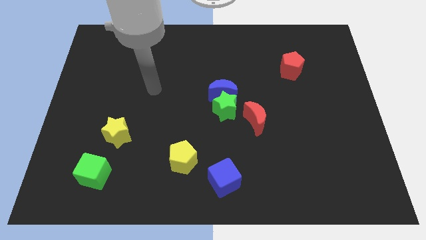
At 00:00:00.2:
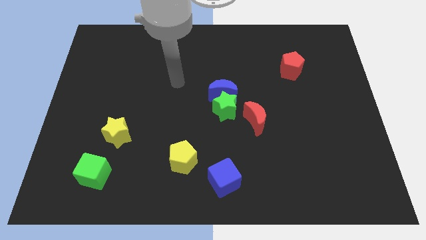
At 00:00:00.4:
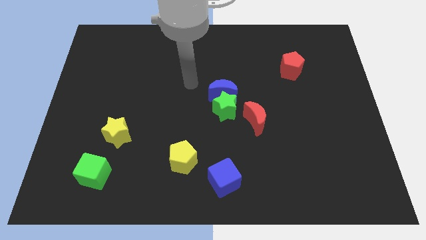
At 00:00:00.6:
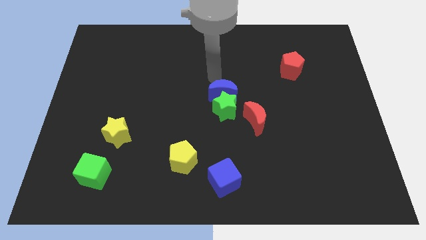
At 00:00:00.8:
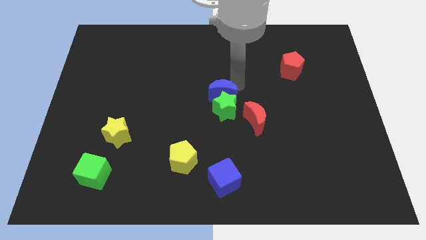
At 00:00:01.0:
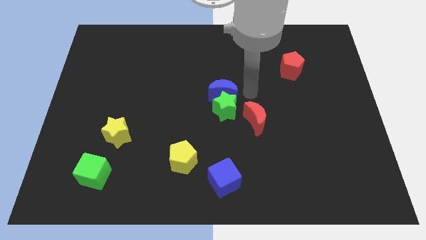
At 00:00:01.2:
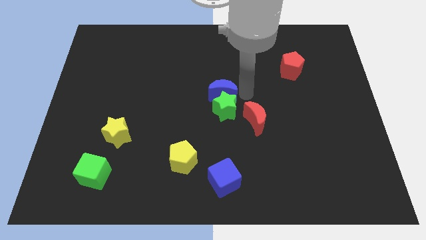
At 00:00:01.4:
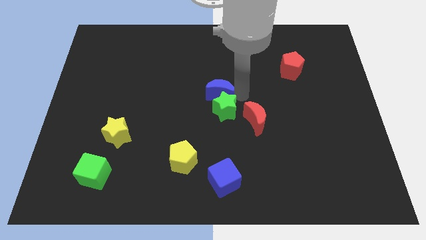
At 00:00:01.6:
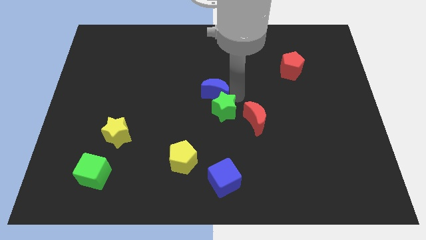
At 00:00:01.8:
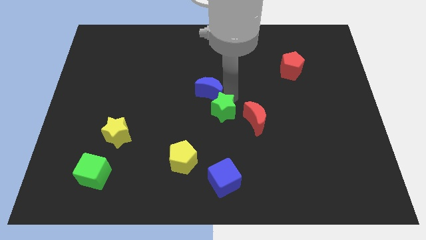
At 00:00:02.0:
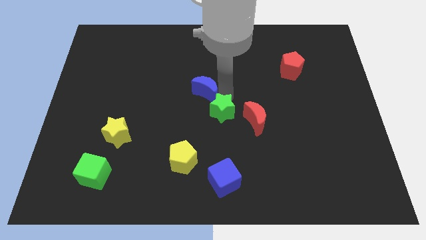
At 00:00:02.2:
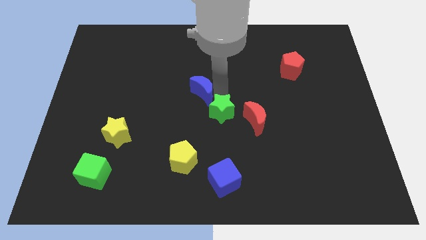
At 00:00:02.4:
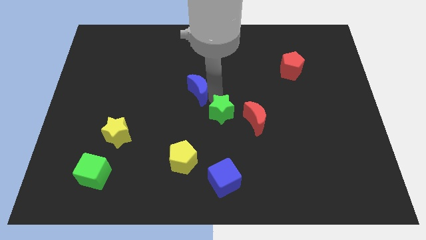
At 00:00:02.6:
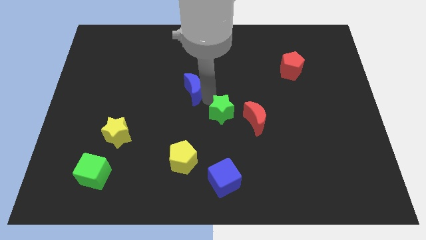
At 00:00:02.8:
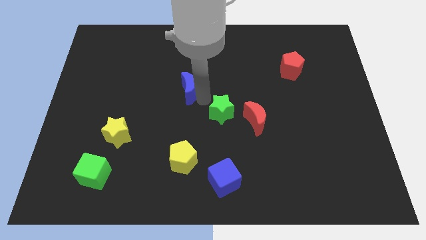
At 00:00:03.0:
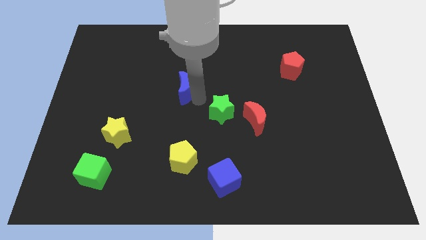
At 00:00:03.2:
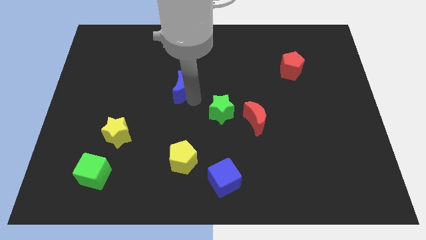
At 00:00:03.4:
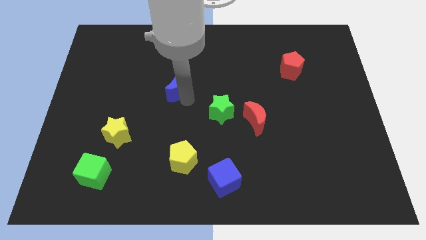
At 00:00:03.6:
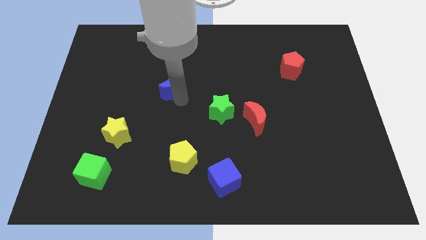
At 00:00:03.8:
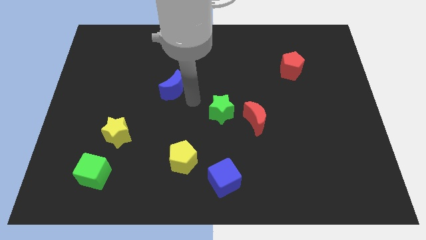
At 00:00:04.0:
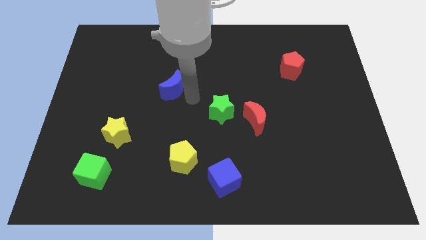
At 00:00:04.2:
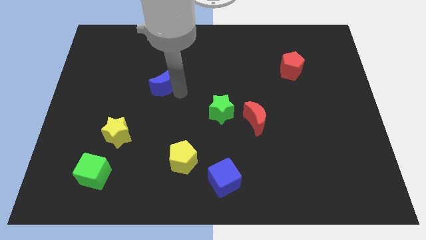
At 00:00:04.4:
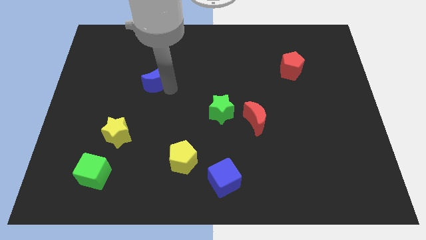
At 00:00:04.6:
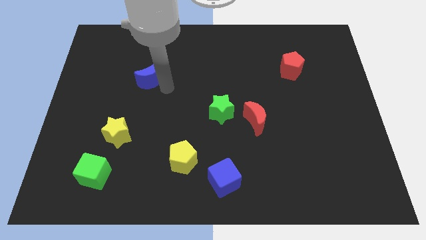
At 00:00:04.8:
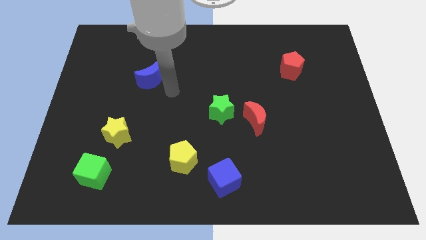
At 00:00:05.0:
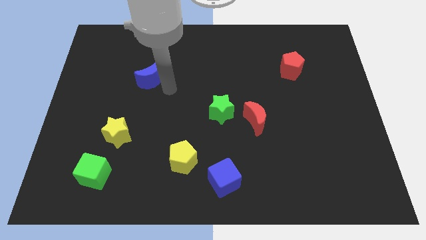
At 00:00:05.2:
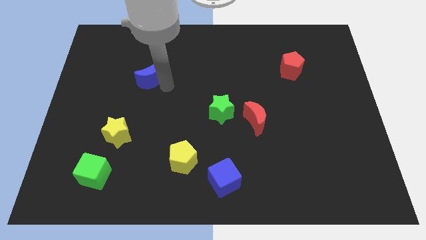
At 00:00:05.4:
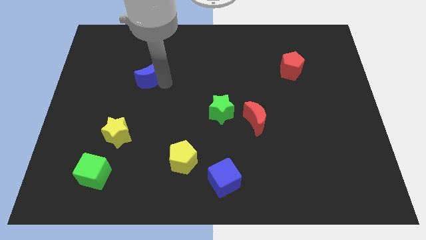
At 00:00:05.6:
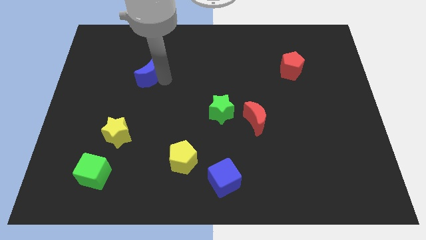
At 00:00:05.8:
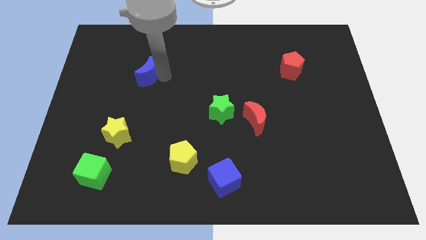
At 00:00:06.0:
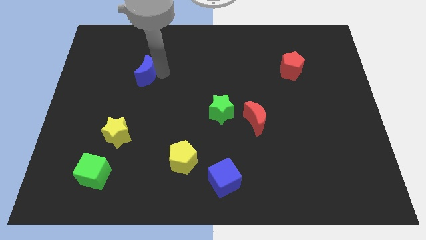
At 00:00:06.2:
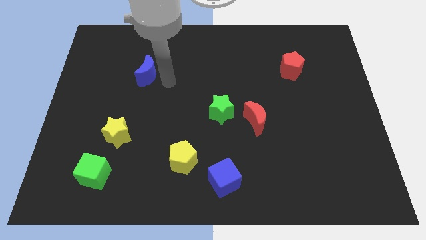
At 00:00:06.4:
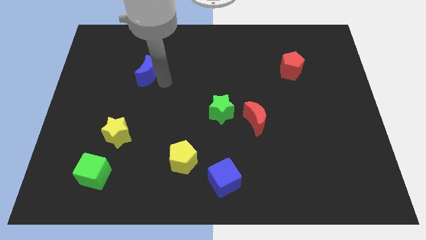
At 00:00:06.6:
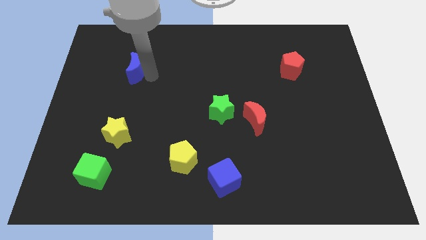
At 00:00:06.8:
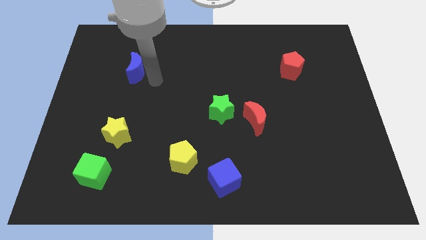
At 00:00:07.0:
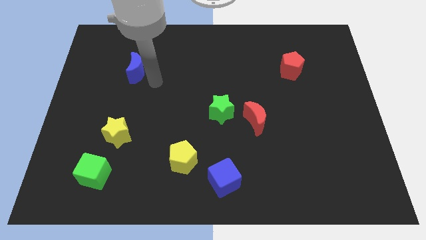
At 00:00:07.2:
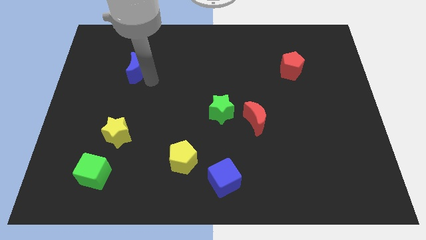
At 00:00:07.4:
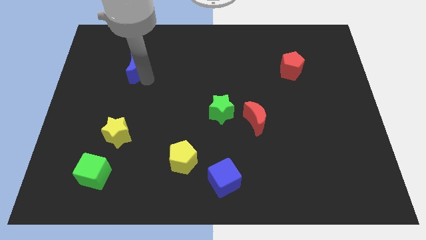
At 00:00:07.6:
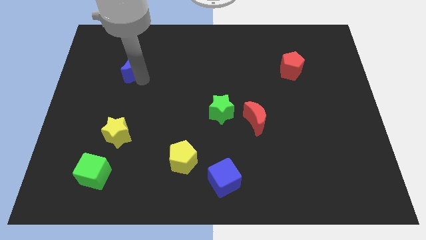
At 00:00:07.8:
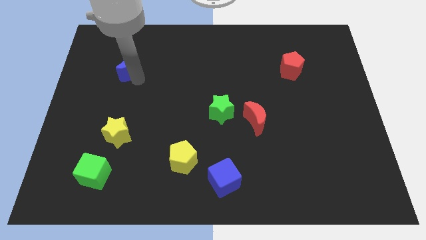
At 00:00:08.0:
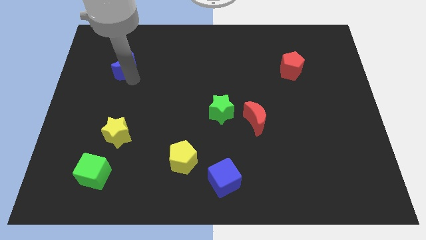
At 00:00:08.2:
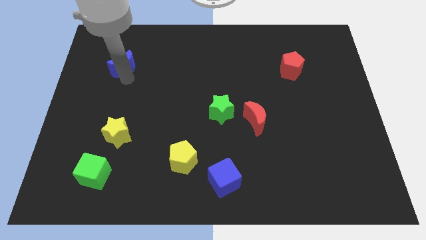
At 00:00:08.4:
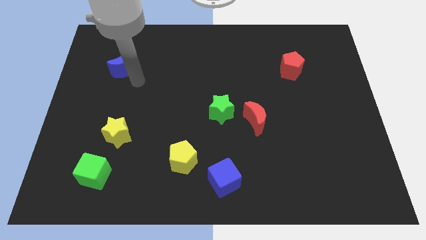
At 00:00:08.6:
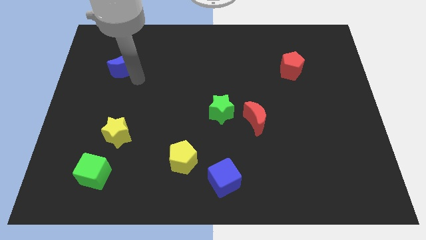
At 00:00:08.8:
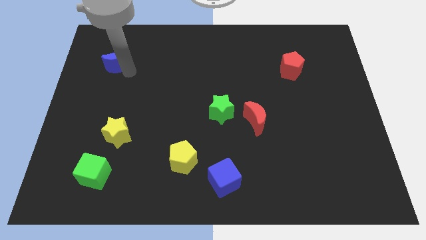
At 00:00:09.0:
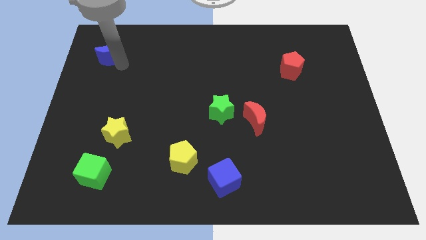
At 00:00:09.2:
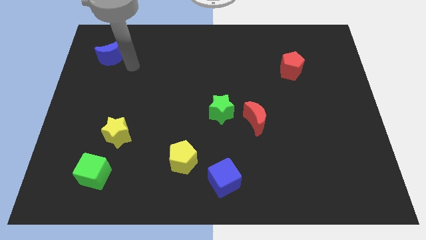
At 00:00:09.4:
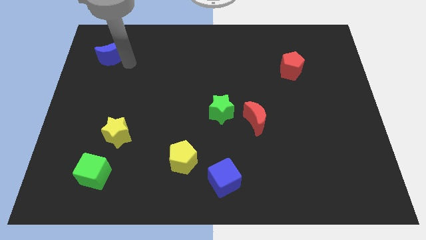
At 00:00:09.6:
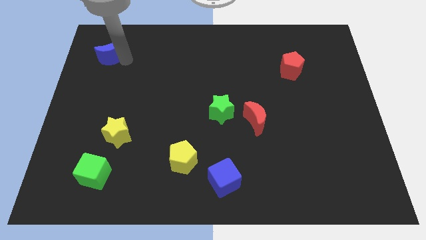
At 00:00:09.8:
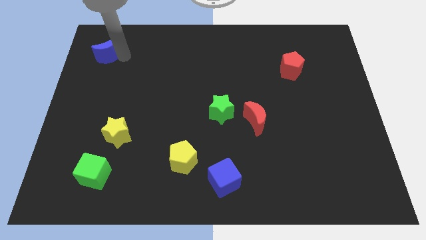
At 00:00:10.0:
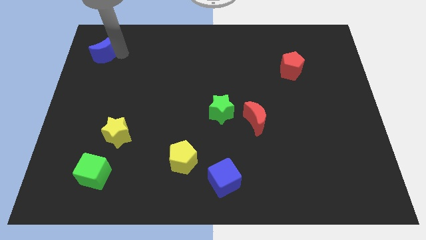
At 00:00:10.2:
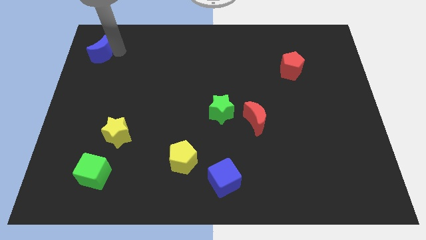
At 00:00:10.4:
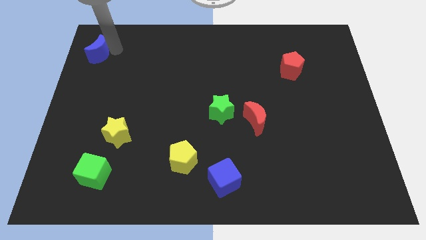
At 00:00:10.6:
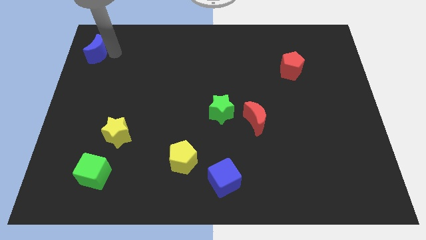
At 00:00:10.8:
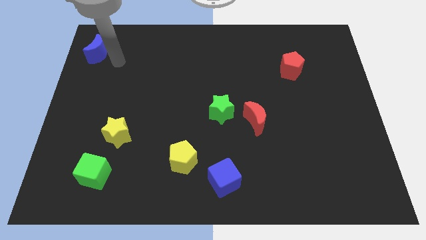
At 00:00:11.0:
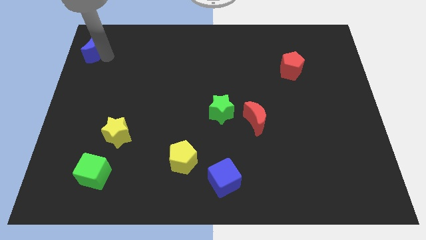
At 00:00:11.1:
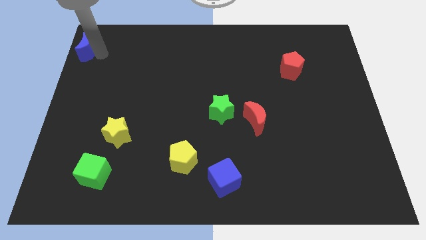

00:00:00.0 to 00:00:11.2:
slide the blue moon to the top left corner

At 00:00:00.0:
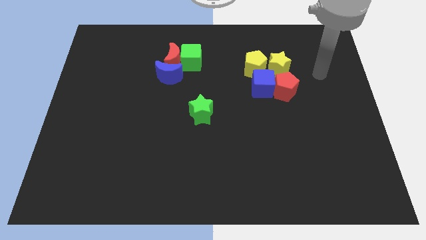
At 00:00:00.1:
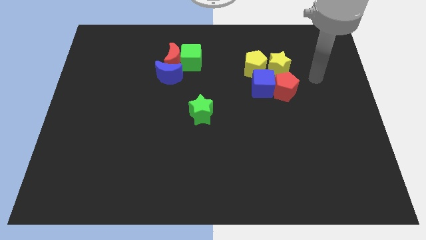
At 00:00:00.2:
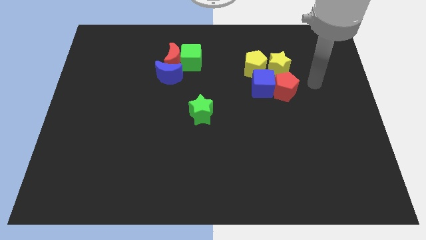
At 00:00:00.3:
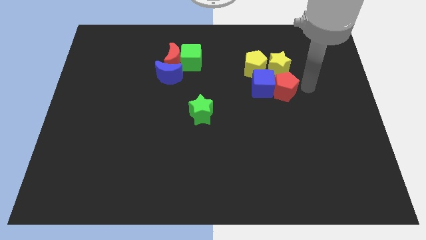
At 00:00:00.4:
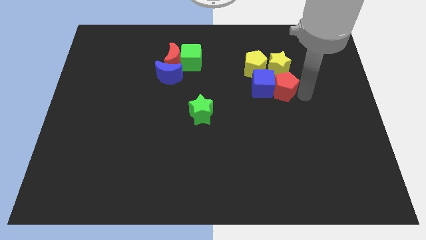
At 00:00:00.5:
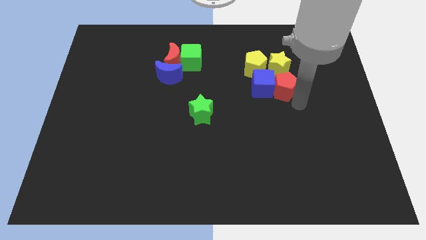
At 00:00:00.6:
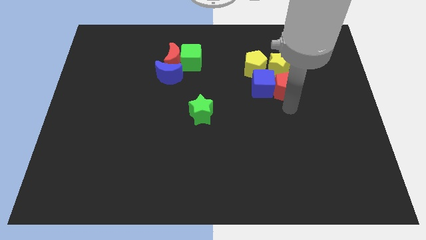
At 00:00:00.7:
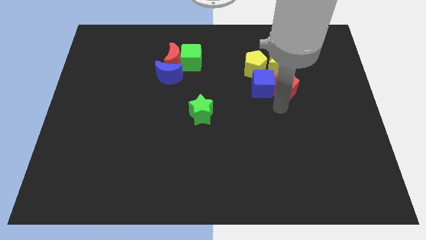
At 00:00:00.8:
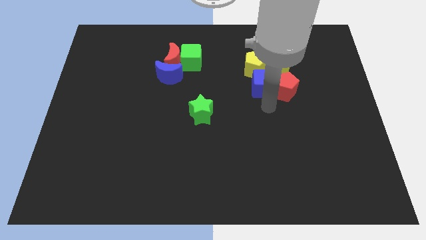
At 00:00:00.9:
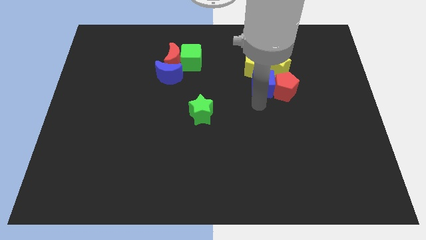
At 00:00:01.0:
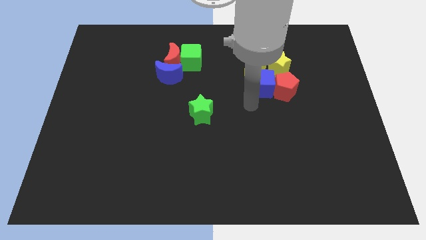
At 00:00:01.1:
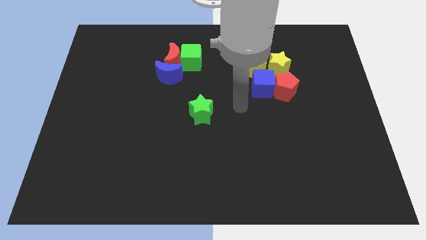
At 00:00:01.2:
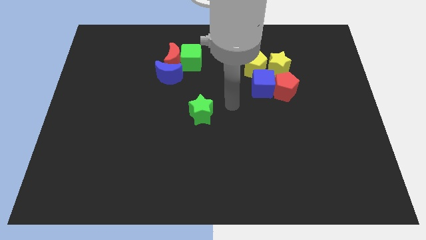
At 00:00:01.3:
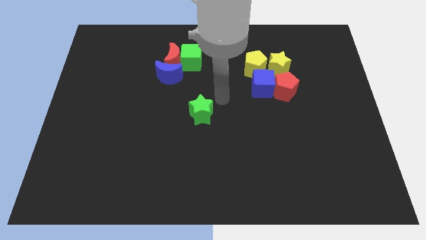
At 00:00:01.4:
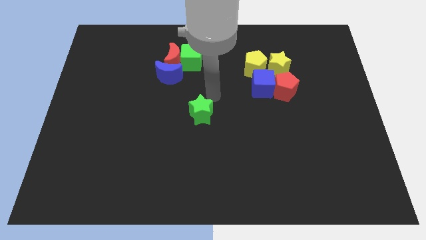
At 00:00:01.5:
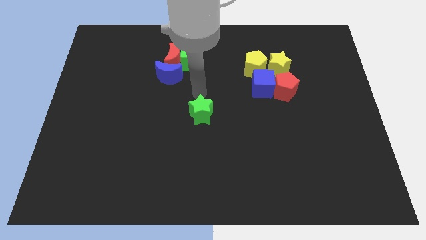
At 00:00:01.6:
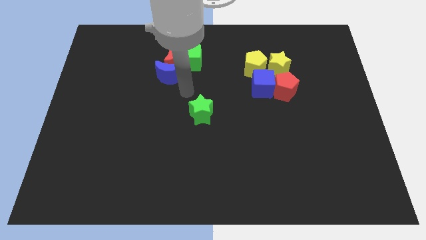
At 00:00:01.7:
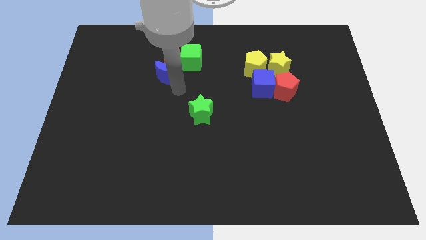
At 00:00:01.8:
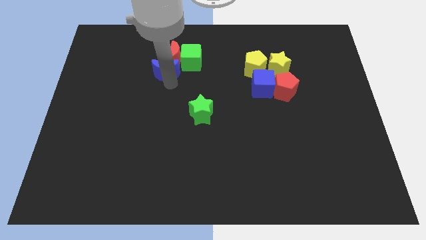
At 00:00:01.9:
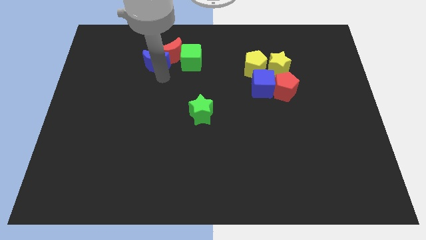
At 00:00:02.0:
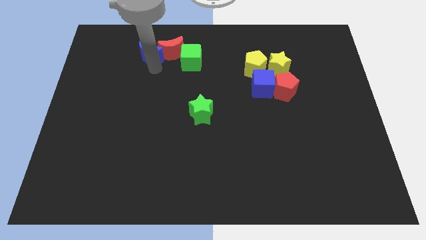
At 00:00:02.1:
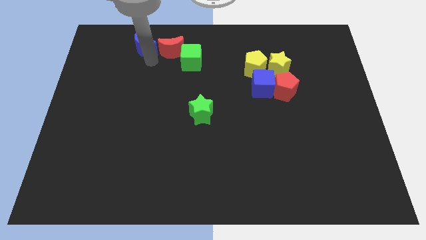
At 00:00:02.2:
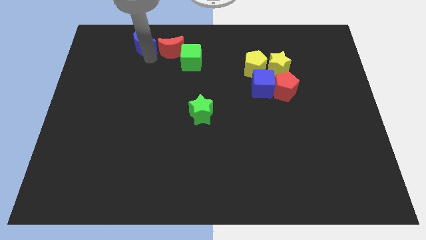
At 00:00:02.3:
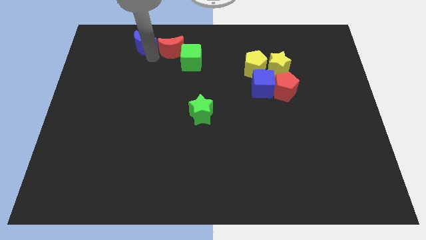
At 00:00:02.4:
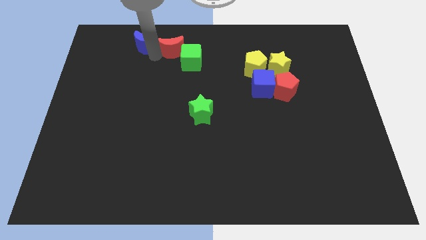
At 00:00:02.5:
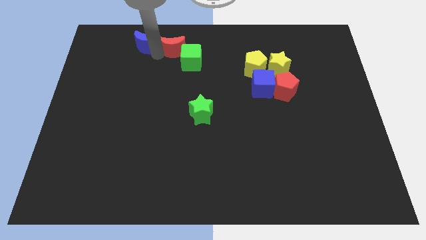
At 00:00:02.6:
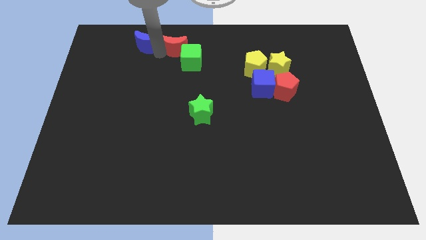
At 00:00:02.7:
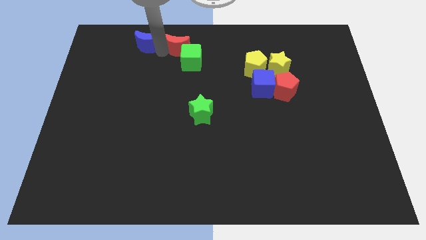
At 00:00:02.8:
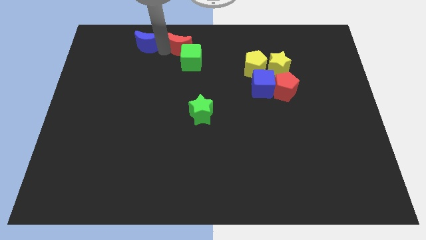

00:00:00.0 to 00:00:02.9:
move the red moon to the top
